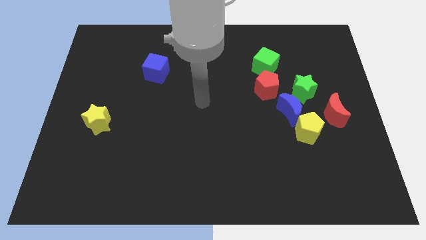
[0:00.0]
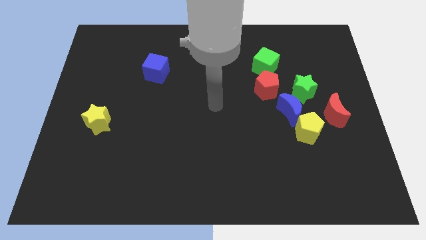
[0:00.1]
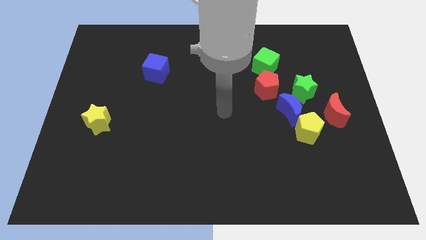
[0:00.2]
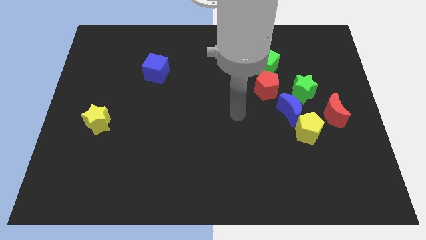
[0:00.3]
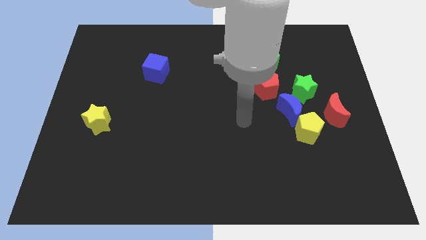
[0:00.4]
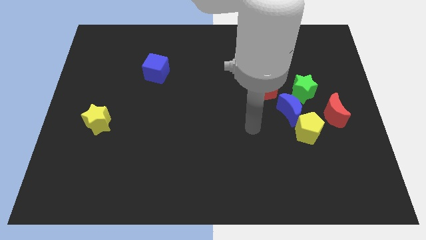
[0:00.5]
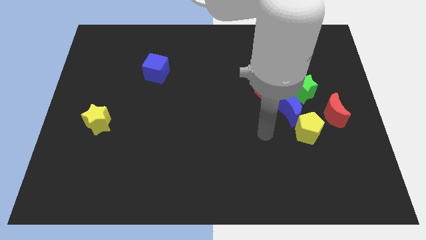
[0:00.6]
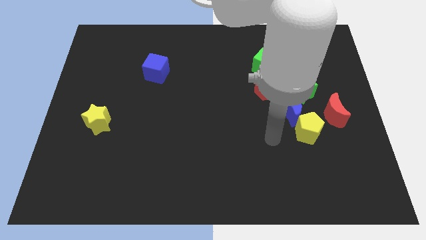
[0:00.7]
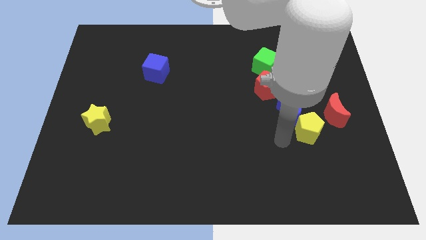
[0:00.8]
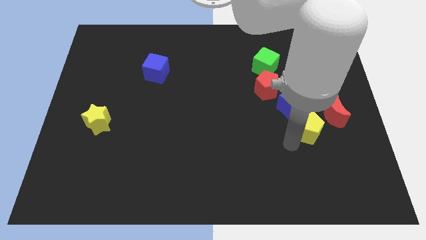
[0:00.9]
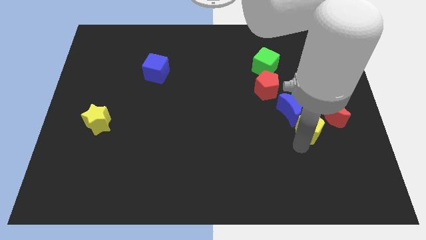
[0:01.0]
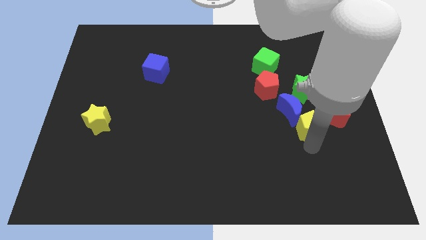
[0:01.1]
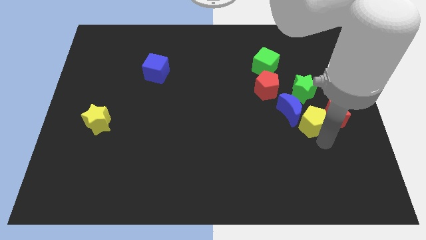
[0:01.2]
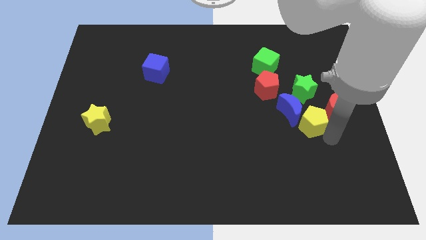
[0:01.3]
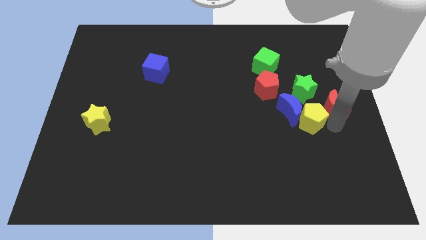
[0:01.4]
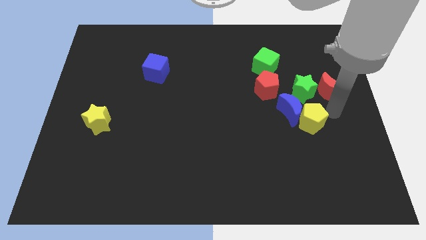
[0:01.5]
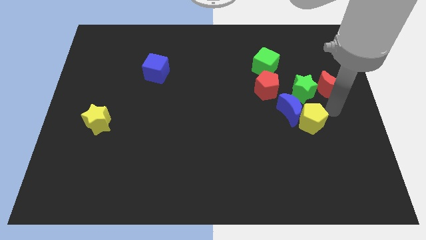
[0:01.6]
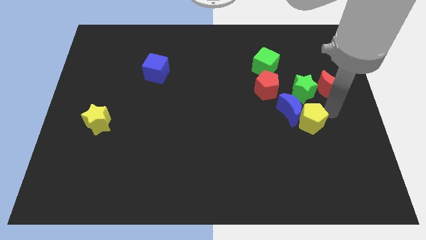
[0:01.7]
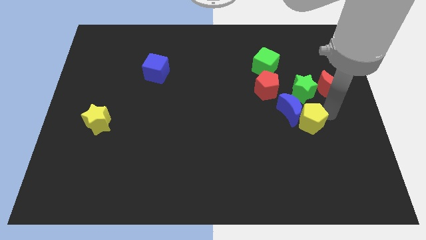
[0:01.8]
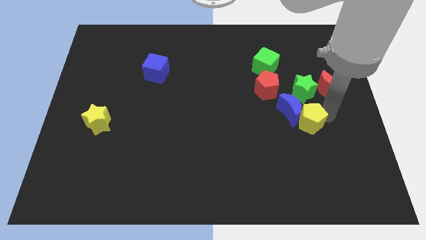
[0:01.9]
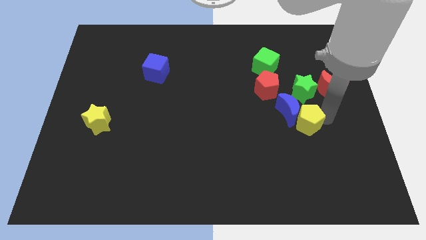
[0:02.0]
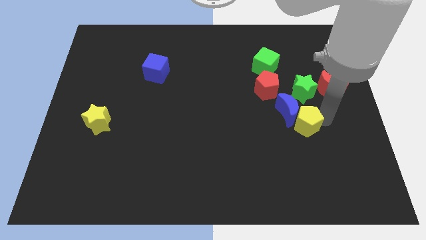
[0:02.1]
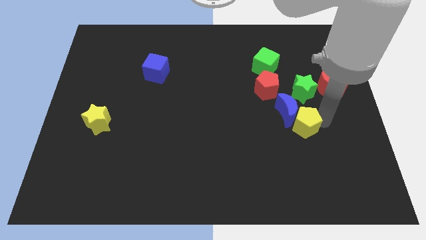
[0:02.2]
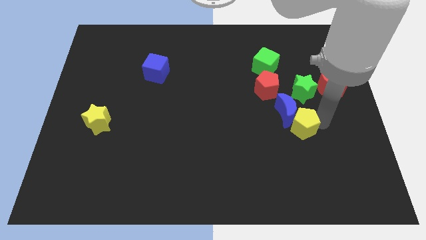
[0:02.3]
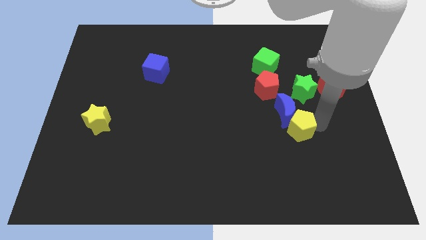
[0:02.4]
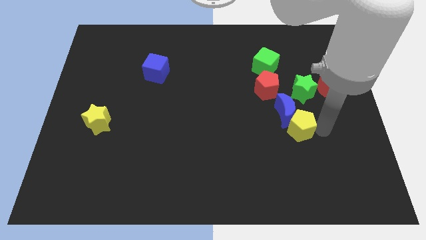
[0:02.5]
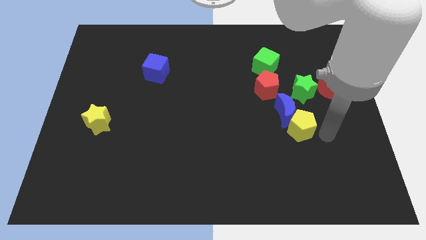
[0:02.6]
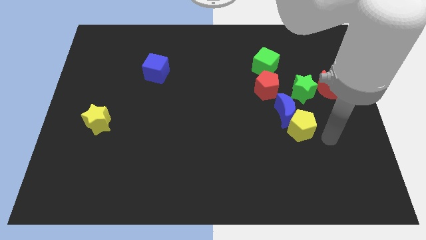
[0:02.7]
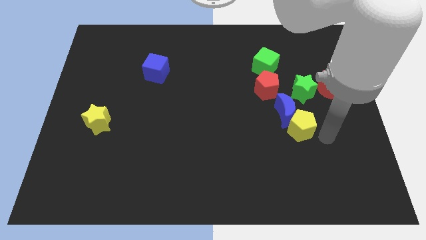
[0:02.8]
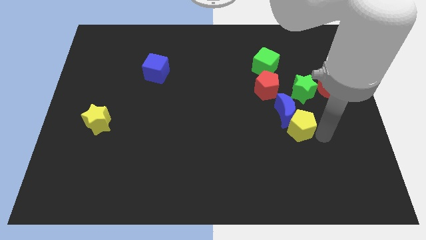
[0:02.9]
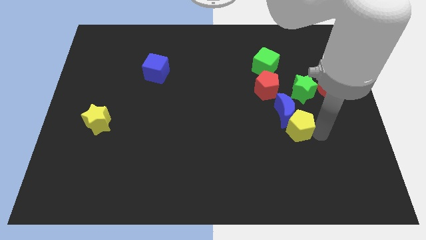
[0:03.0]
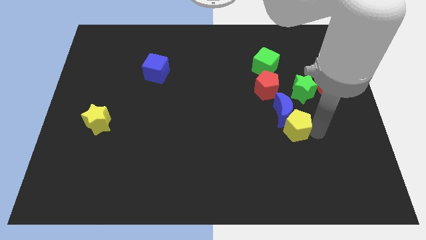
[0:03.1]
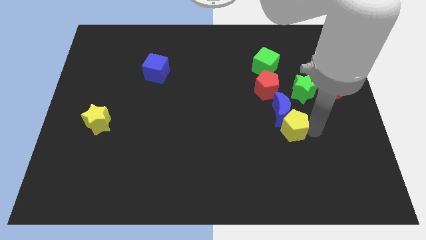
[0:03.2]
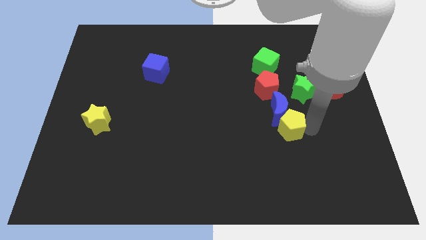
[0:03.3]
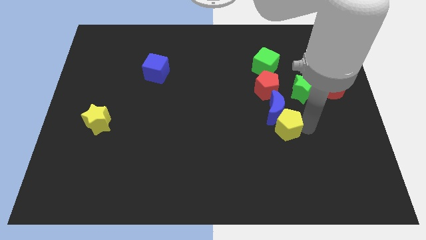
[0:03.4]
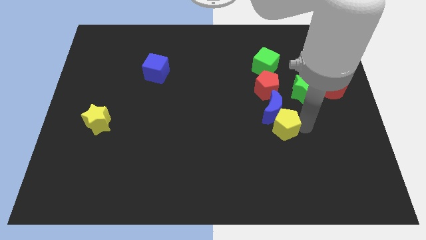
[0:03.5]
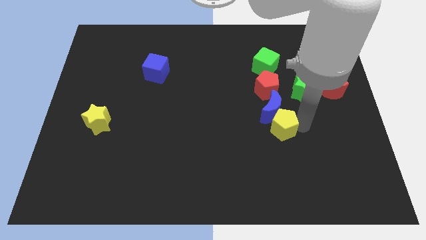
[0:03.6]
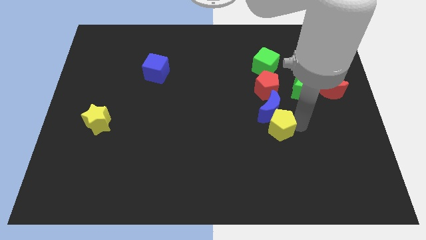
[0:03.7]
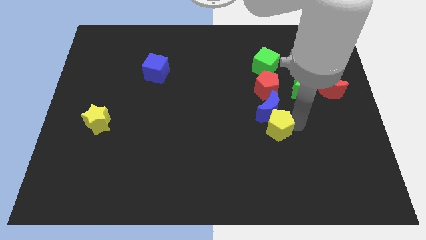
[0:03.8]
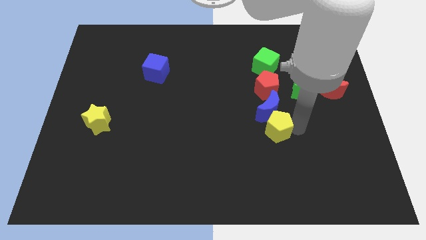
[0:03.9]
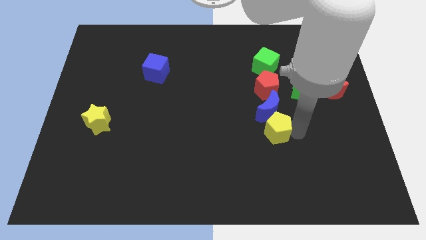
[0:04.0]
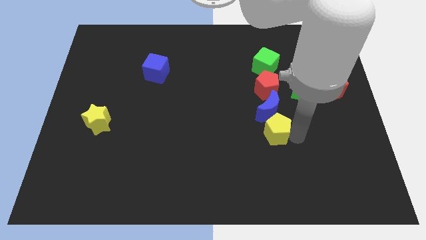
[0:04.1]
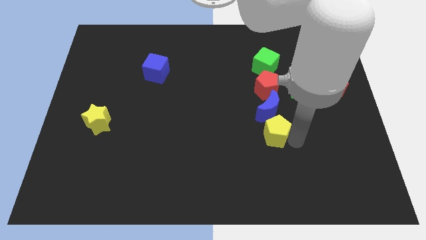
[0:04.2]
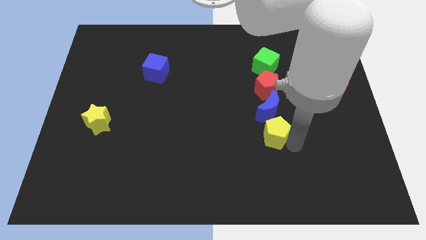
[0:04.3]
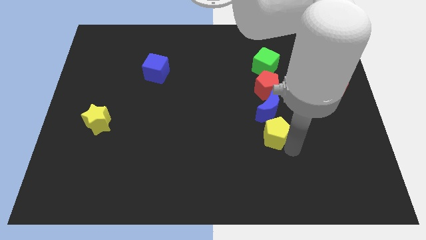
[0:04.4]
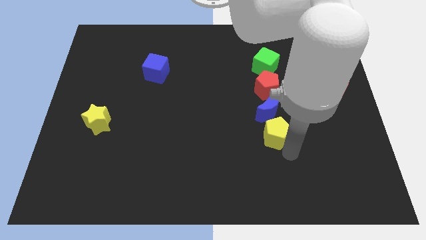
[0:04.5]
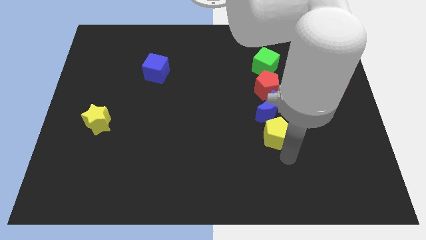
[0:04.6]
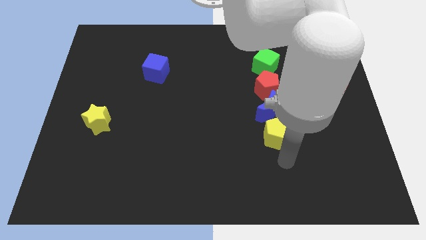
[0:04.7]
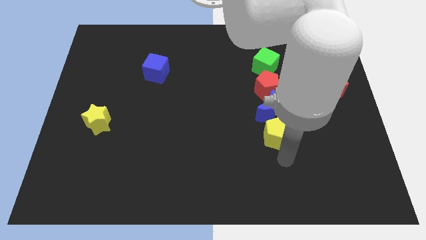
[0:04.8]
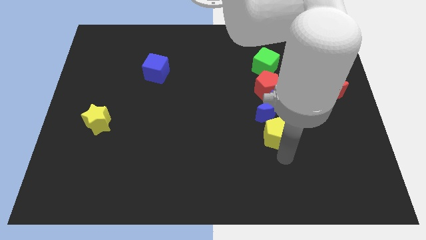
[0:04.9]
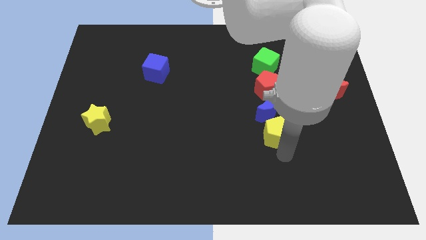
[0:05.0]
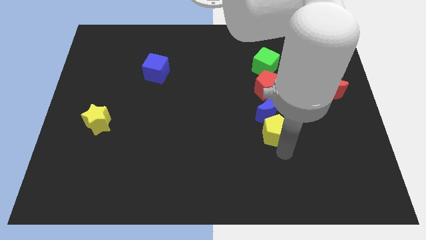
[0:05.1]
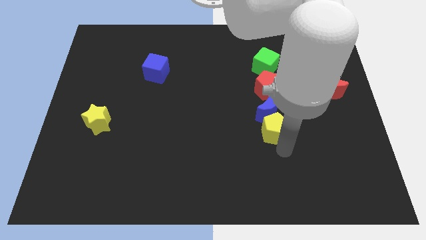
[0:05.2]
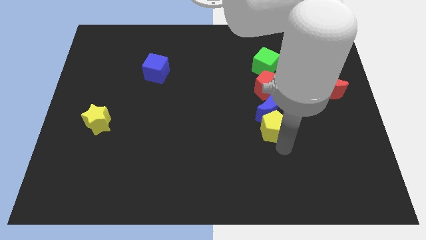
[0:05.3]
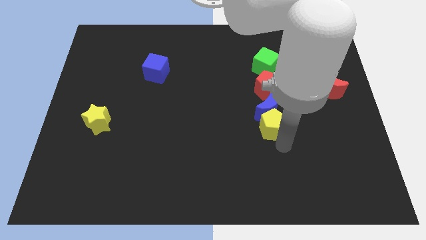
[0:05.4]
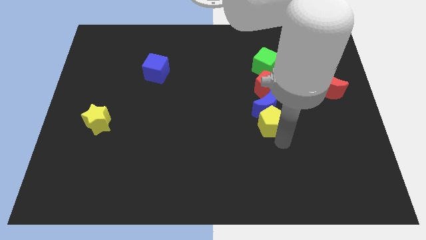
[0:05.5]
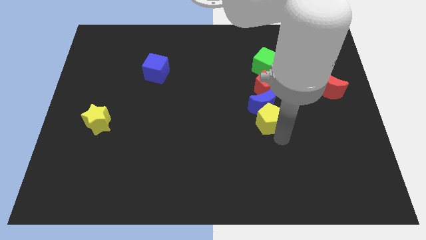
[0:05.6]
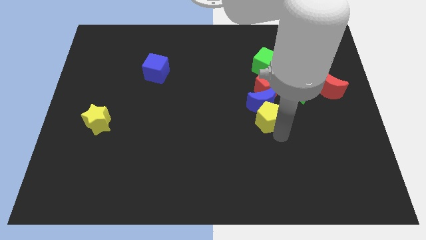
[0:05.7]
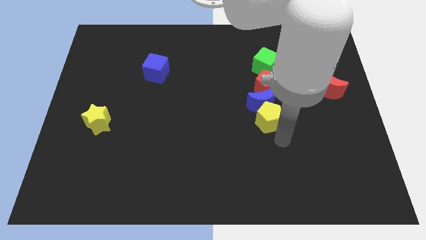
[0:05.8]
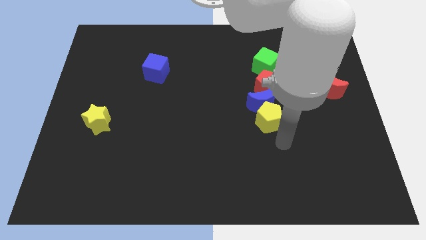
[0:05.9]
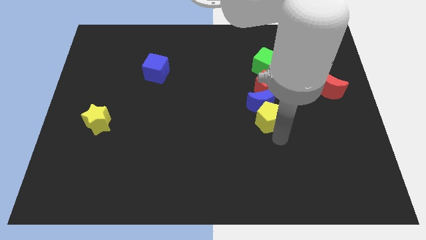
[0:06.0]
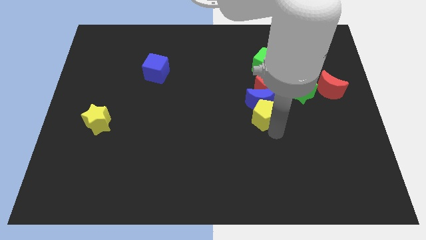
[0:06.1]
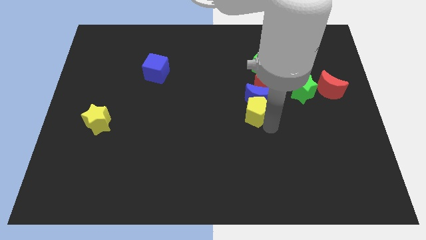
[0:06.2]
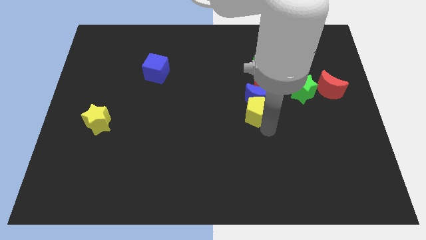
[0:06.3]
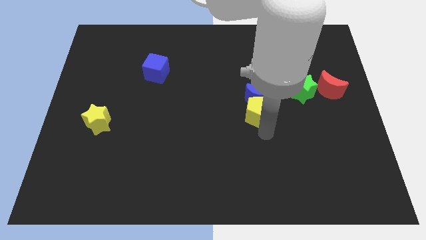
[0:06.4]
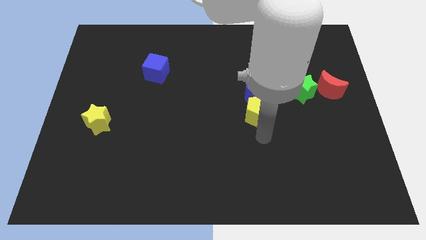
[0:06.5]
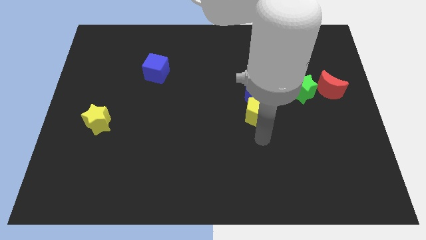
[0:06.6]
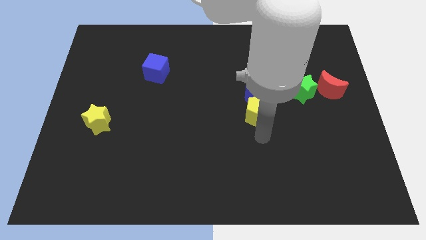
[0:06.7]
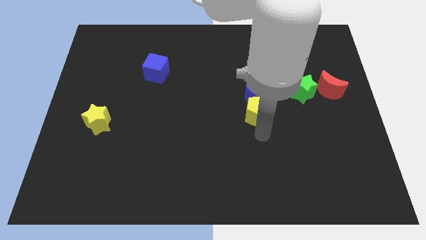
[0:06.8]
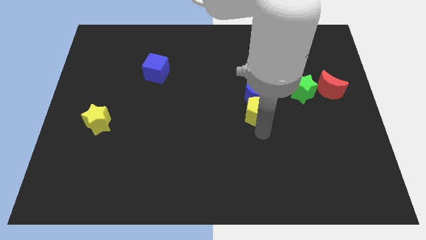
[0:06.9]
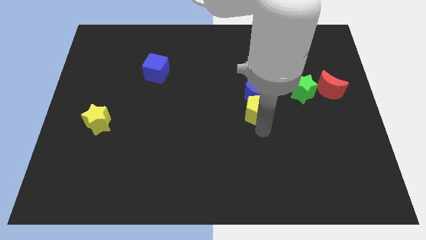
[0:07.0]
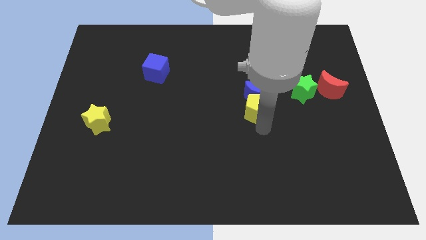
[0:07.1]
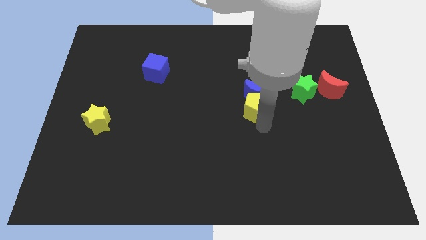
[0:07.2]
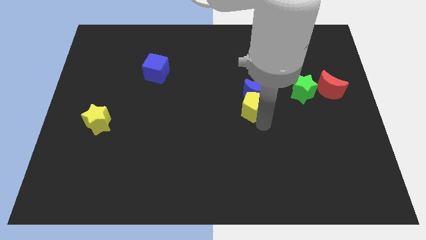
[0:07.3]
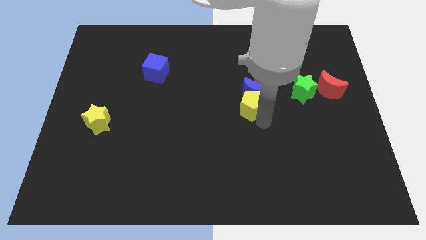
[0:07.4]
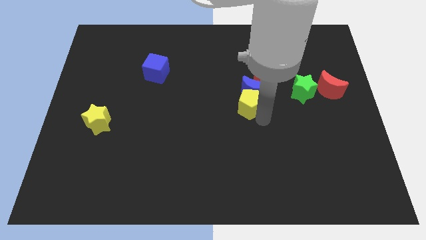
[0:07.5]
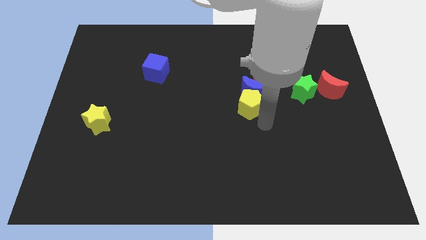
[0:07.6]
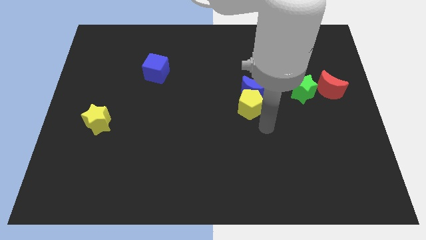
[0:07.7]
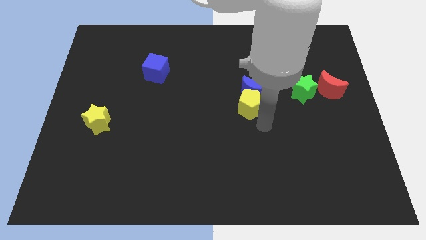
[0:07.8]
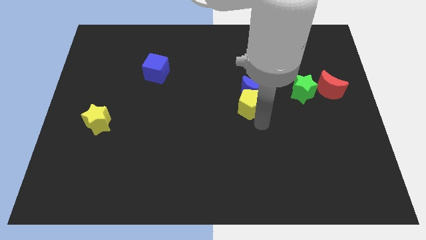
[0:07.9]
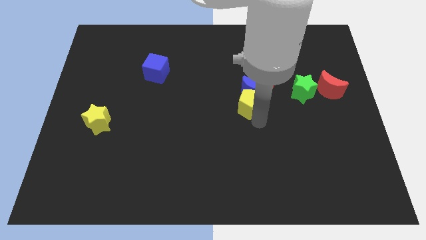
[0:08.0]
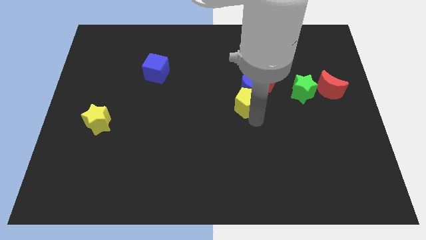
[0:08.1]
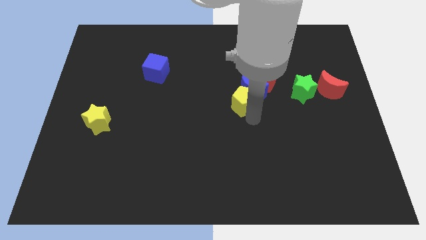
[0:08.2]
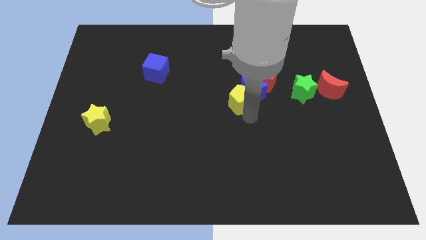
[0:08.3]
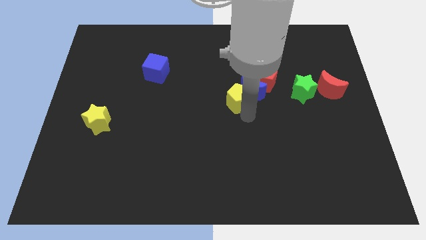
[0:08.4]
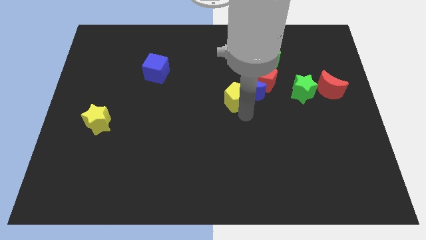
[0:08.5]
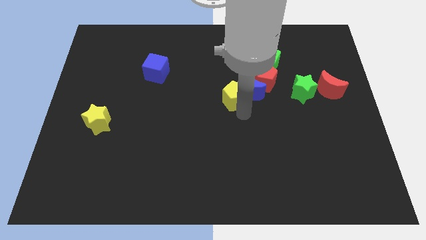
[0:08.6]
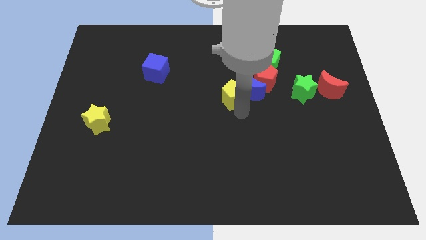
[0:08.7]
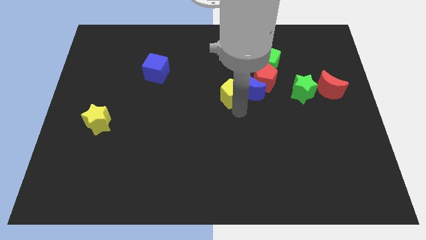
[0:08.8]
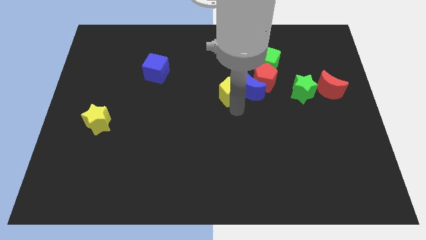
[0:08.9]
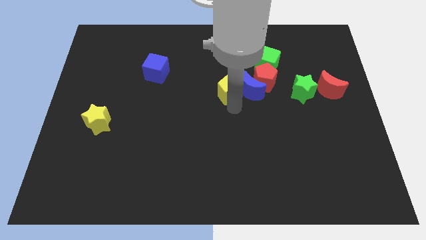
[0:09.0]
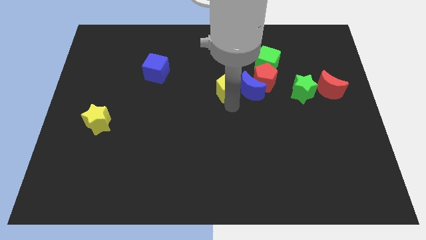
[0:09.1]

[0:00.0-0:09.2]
push the yellow pentagon up and to the left
